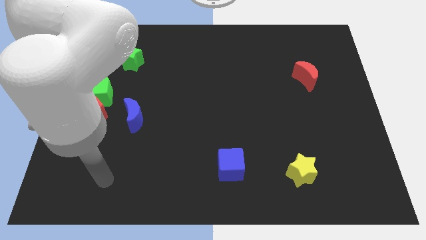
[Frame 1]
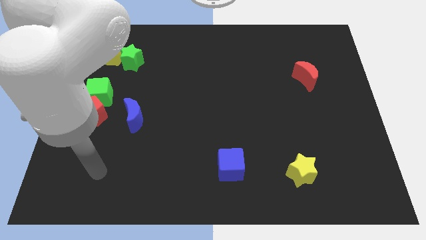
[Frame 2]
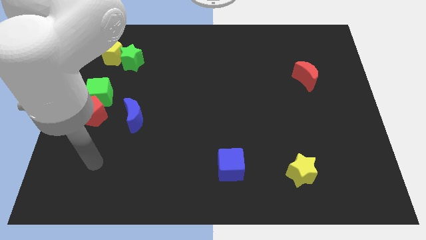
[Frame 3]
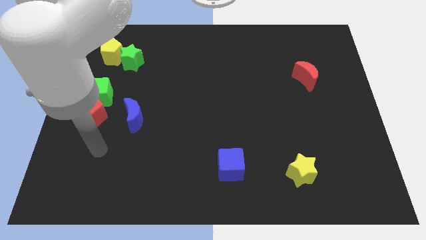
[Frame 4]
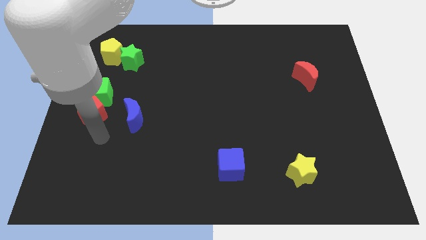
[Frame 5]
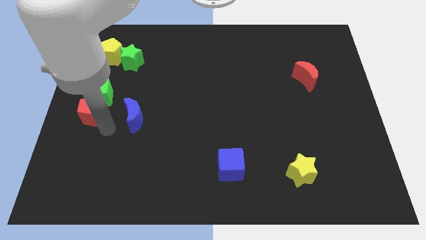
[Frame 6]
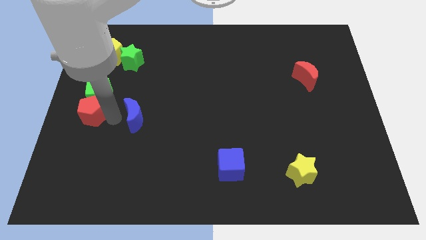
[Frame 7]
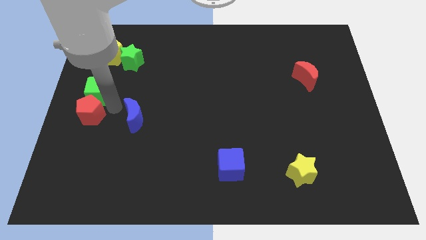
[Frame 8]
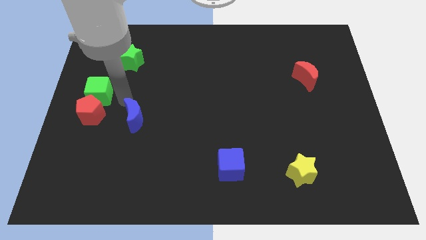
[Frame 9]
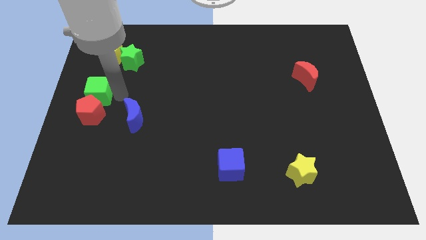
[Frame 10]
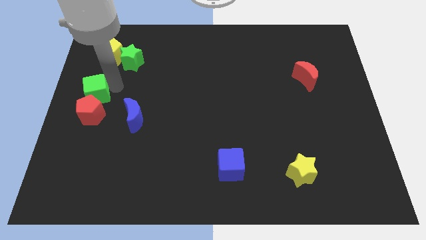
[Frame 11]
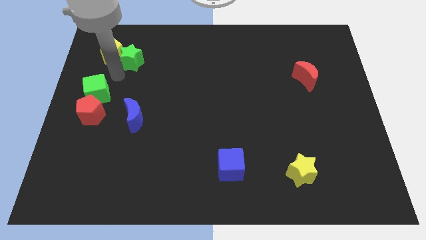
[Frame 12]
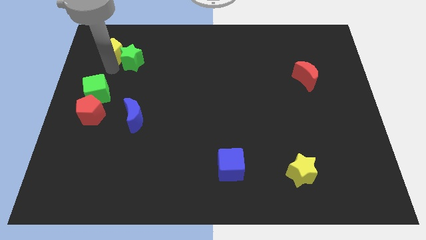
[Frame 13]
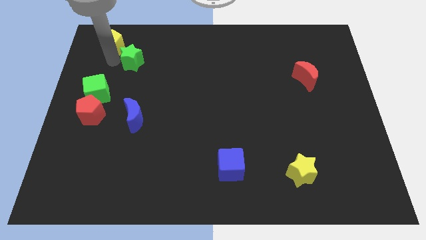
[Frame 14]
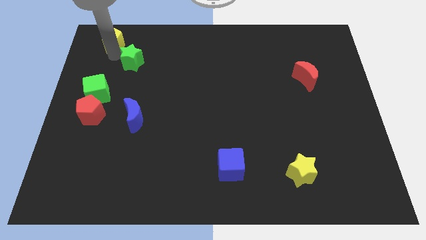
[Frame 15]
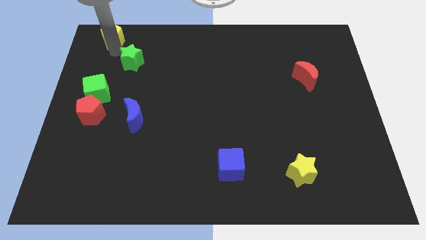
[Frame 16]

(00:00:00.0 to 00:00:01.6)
move the green star away from the yellow pentagon

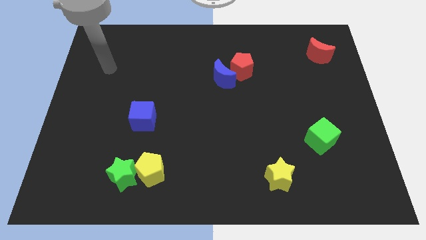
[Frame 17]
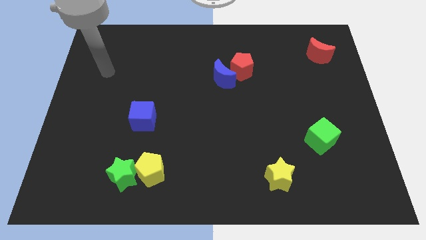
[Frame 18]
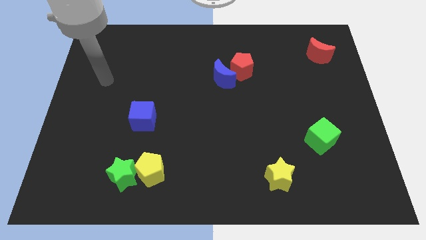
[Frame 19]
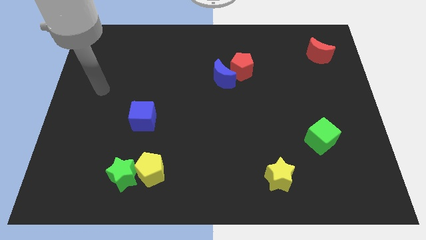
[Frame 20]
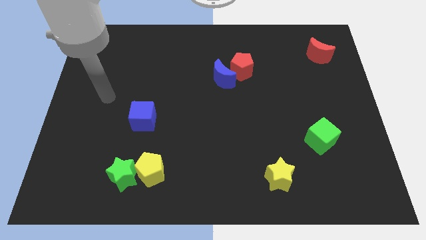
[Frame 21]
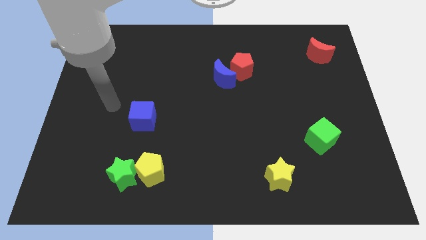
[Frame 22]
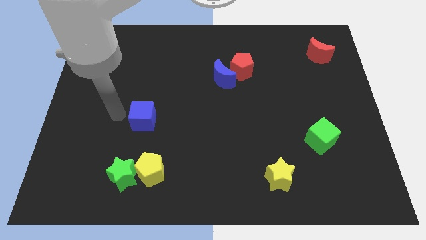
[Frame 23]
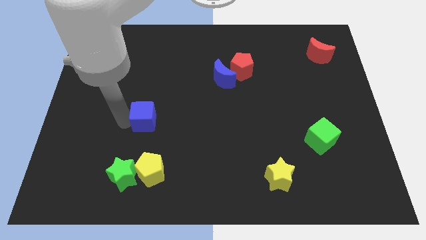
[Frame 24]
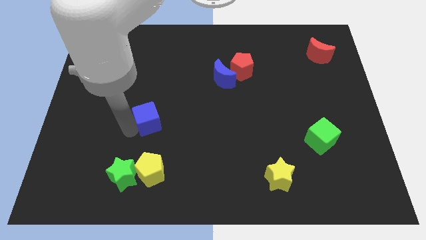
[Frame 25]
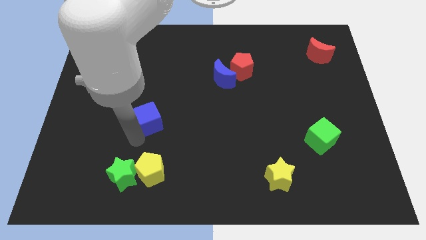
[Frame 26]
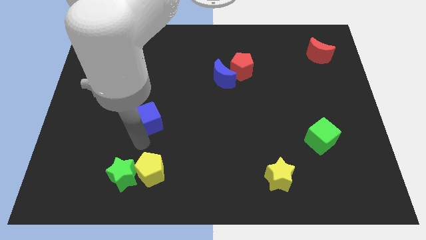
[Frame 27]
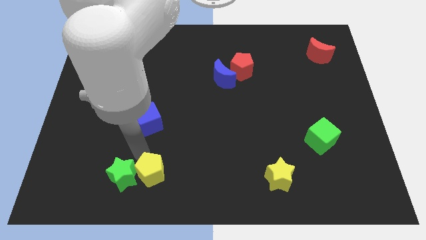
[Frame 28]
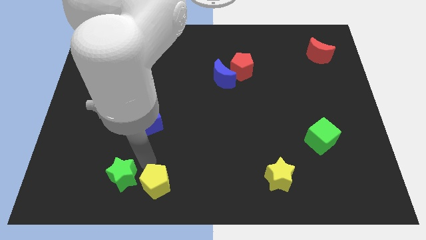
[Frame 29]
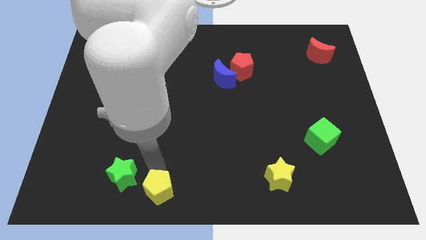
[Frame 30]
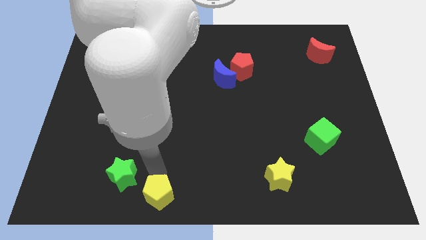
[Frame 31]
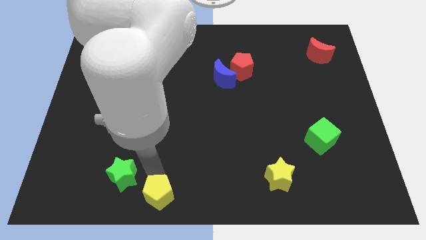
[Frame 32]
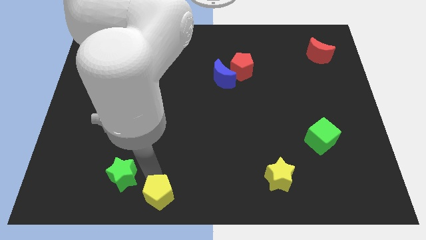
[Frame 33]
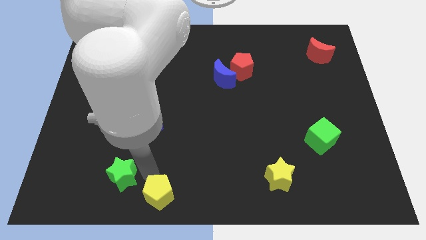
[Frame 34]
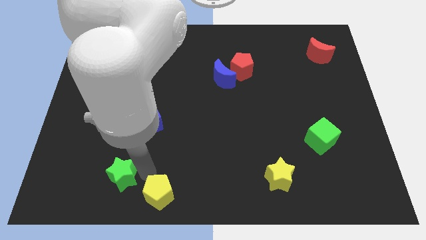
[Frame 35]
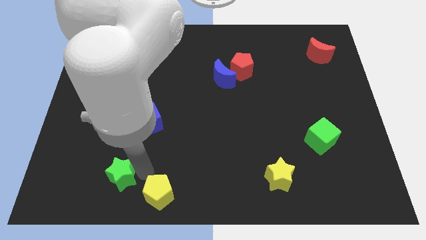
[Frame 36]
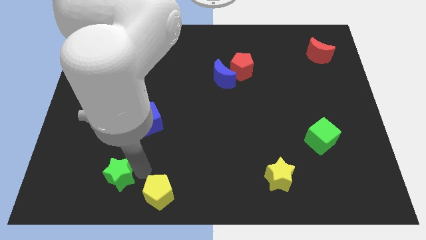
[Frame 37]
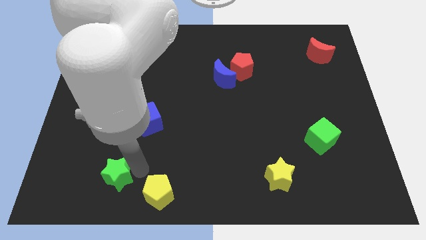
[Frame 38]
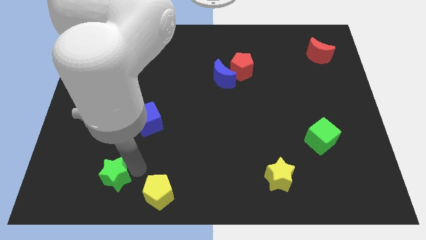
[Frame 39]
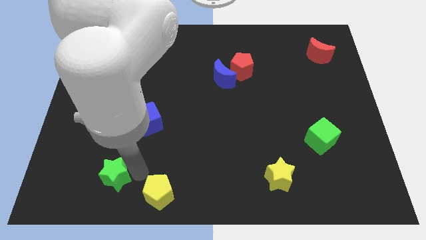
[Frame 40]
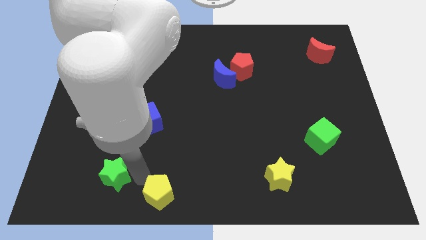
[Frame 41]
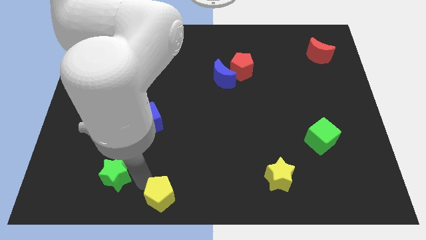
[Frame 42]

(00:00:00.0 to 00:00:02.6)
separate the green star from the yellow pentagon

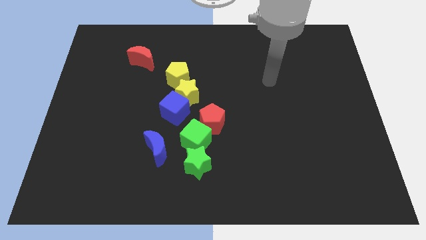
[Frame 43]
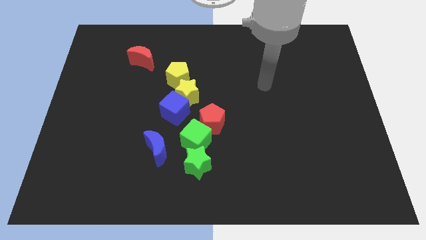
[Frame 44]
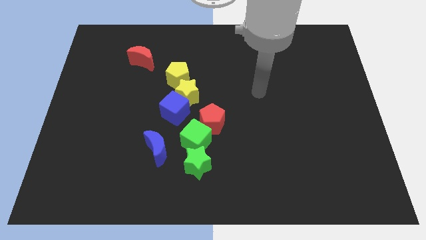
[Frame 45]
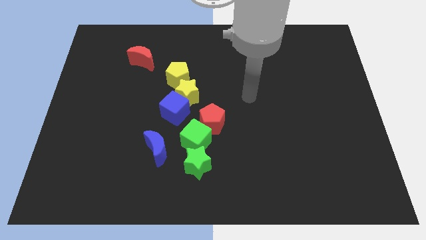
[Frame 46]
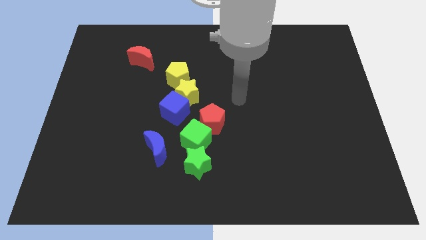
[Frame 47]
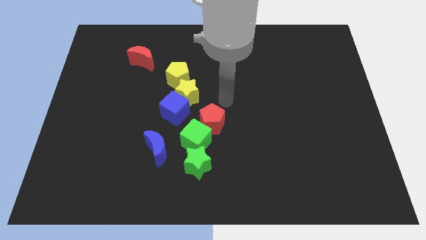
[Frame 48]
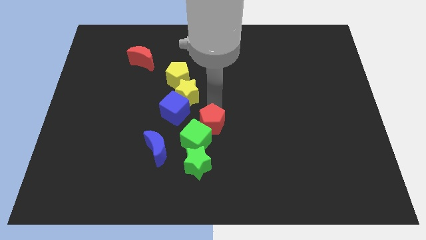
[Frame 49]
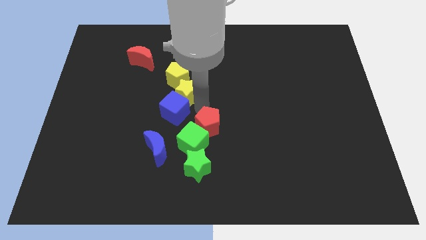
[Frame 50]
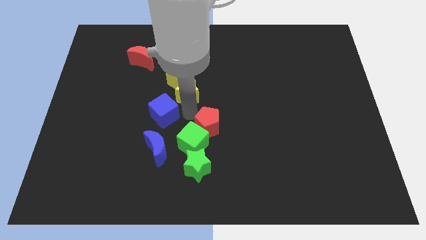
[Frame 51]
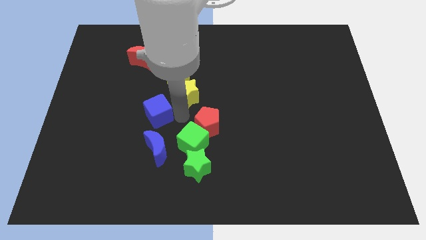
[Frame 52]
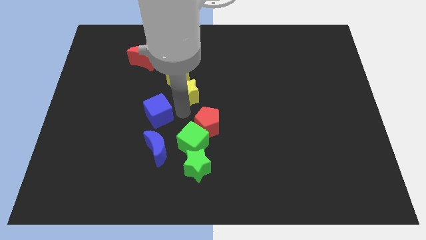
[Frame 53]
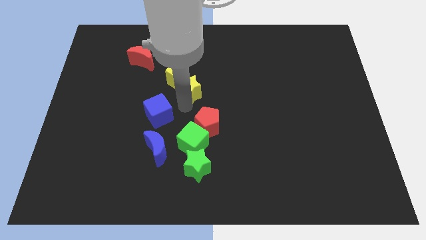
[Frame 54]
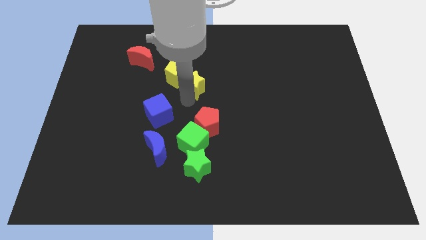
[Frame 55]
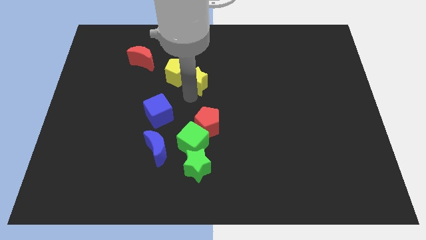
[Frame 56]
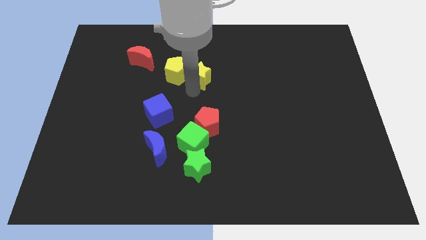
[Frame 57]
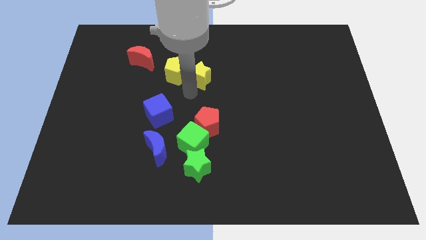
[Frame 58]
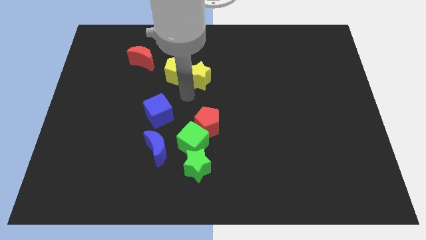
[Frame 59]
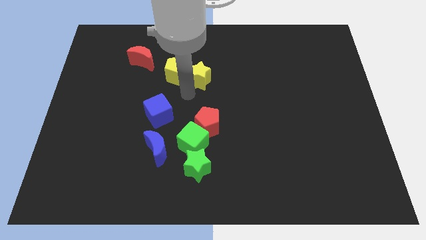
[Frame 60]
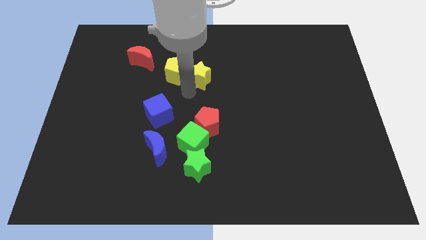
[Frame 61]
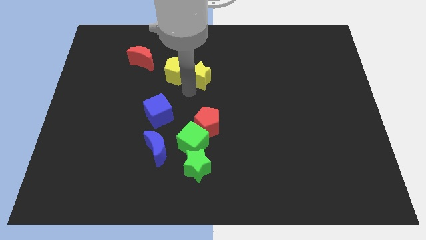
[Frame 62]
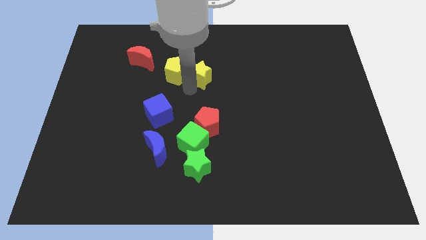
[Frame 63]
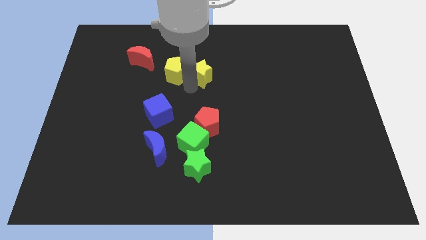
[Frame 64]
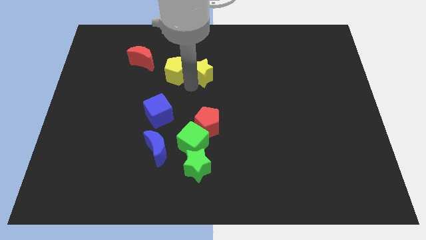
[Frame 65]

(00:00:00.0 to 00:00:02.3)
separate the yellow star from the clump

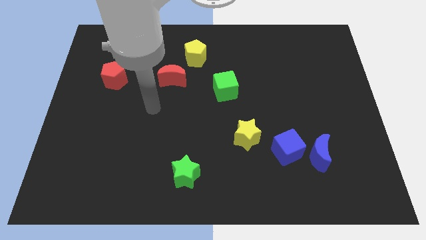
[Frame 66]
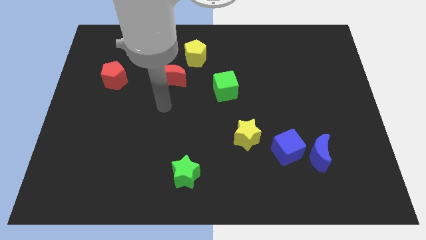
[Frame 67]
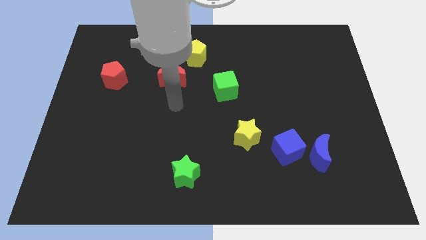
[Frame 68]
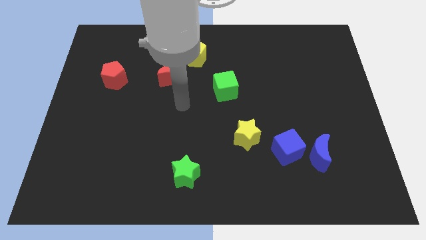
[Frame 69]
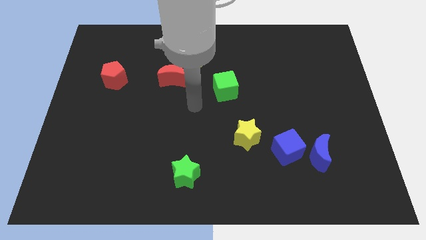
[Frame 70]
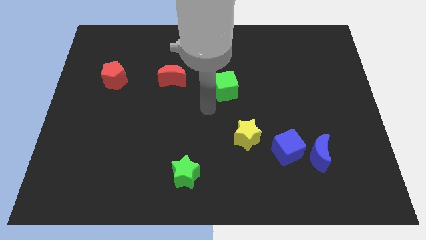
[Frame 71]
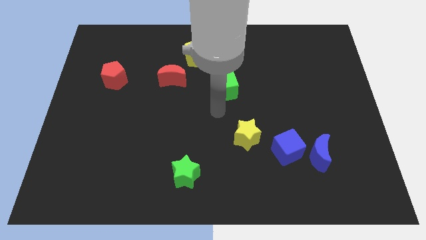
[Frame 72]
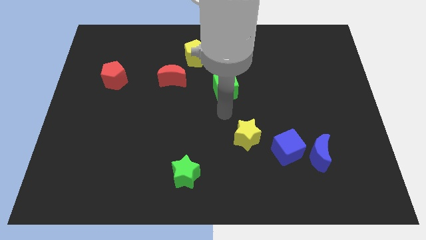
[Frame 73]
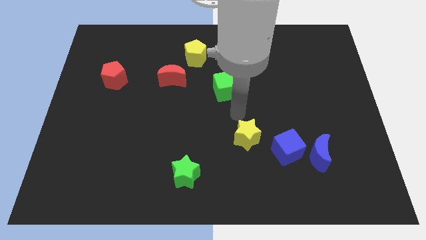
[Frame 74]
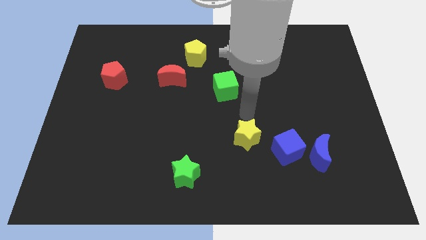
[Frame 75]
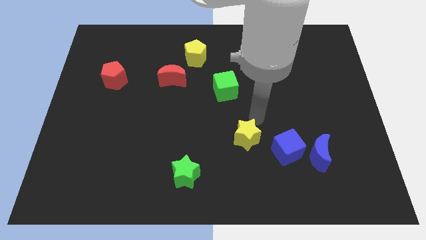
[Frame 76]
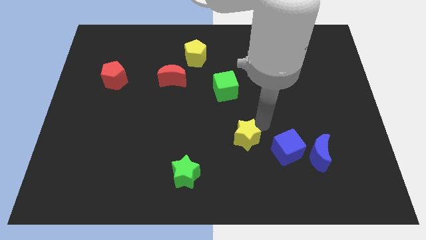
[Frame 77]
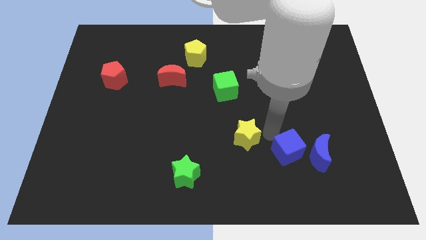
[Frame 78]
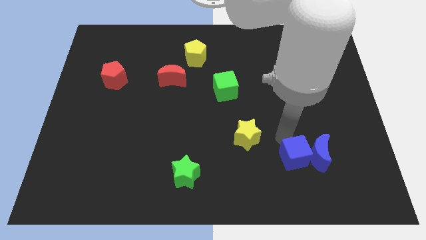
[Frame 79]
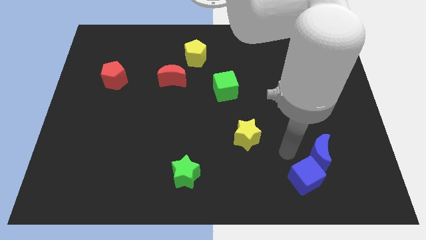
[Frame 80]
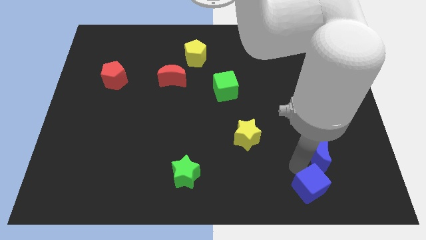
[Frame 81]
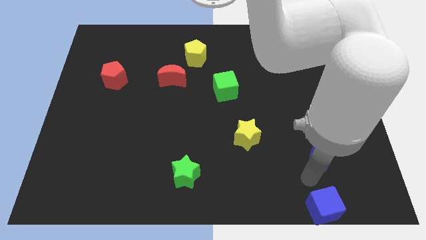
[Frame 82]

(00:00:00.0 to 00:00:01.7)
move the blue moon away from the blue cube

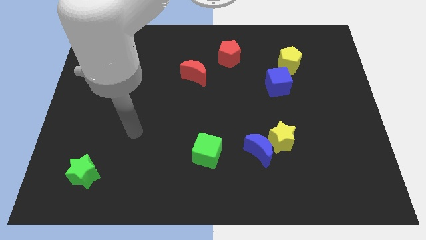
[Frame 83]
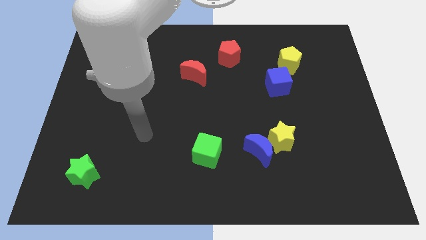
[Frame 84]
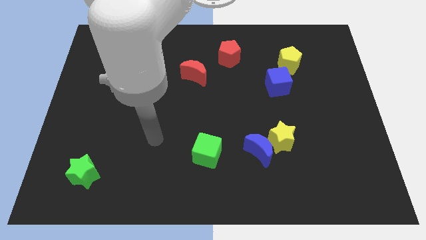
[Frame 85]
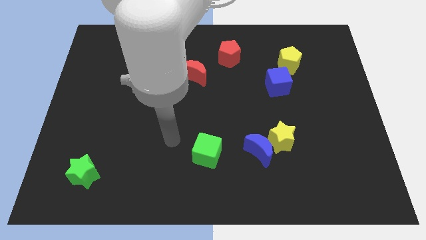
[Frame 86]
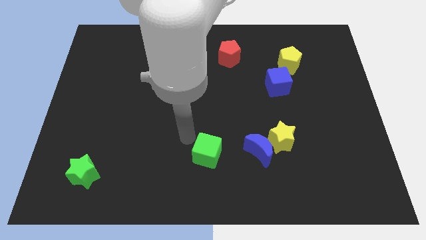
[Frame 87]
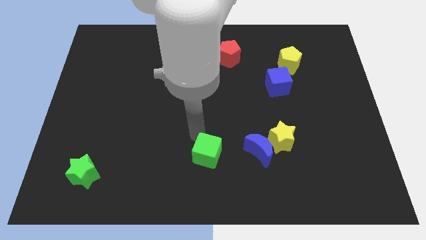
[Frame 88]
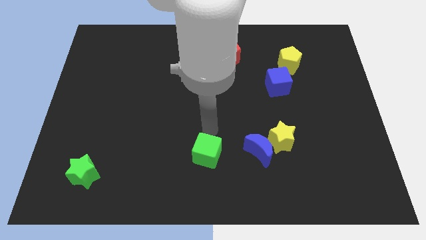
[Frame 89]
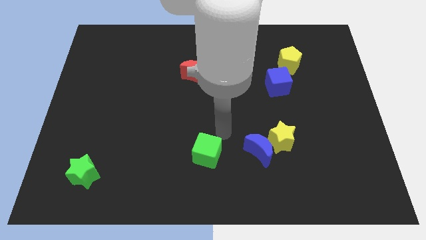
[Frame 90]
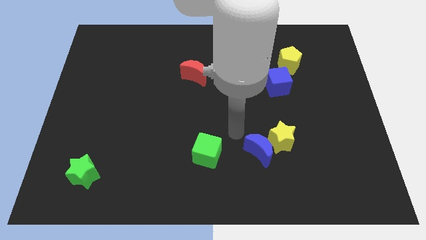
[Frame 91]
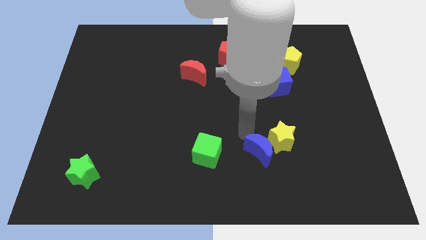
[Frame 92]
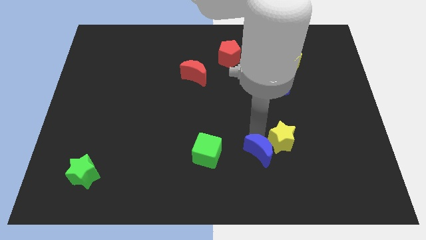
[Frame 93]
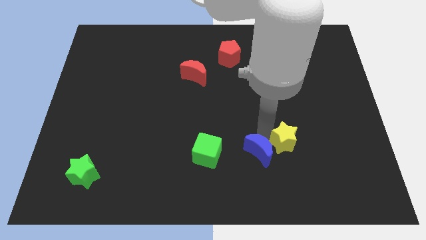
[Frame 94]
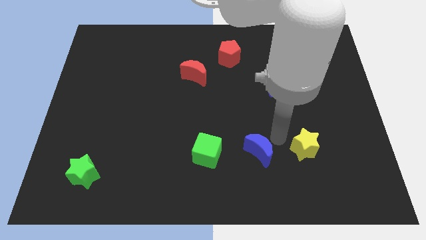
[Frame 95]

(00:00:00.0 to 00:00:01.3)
move the blue moon away from the yellow star
